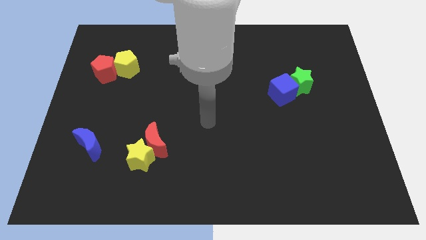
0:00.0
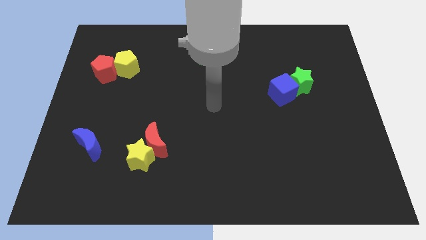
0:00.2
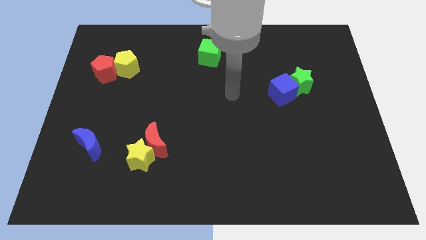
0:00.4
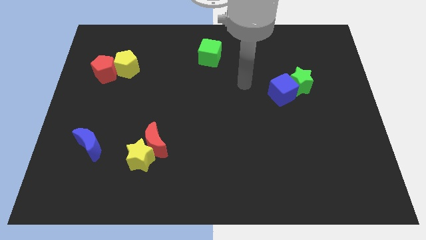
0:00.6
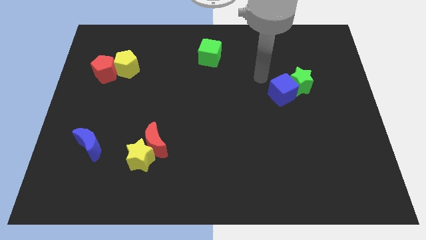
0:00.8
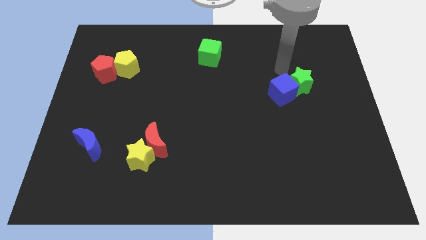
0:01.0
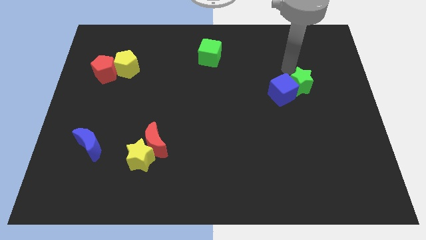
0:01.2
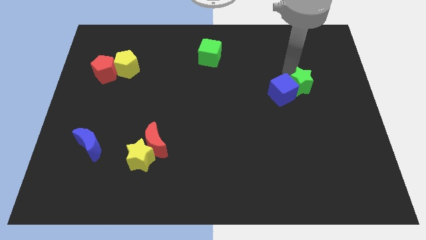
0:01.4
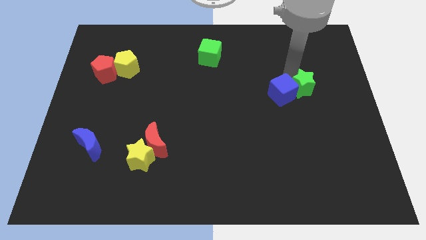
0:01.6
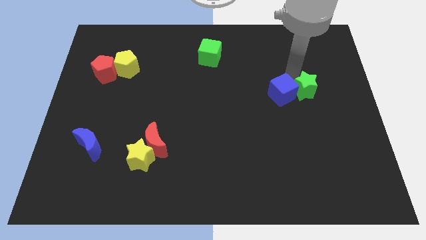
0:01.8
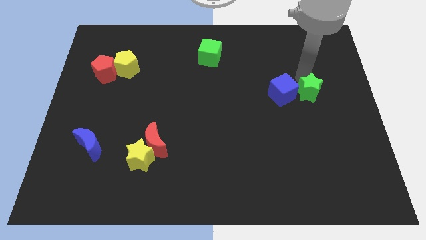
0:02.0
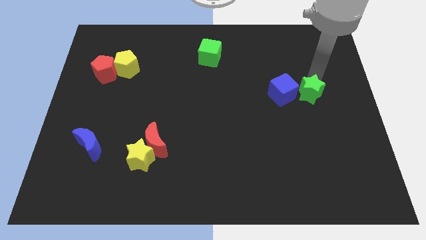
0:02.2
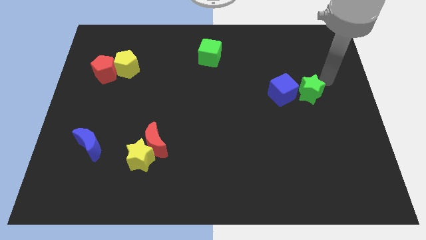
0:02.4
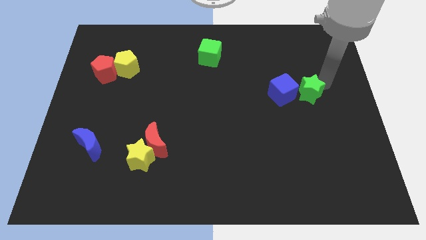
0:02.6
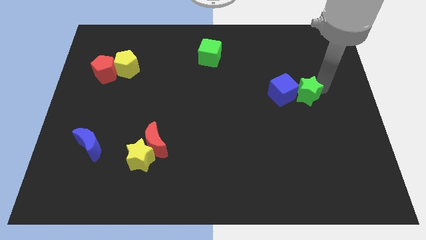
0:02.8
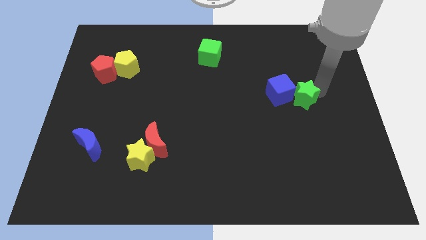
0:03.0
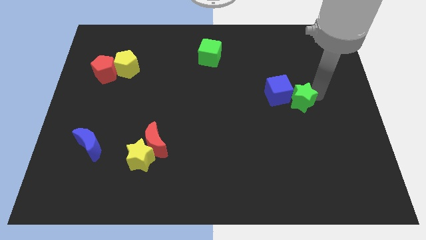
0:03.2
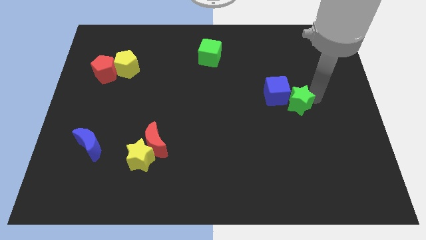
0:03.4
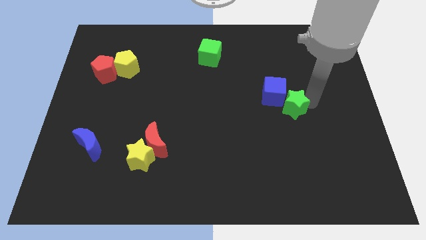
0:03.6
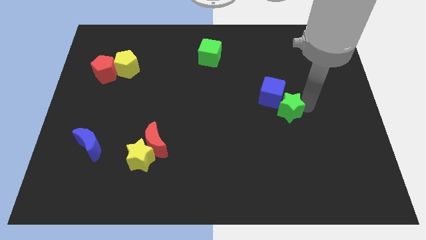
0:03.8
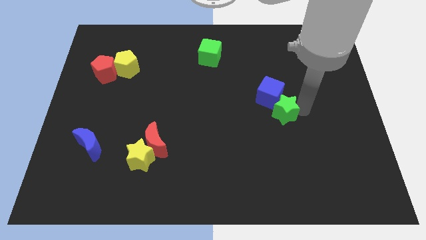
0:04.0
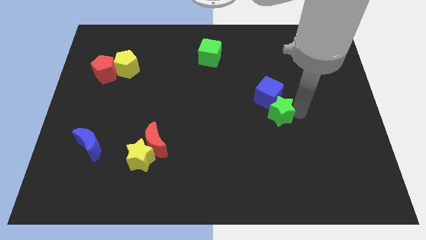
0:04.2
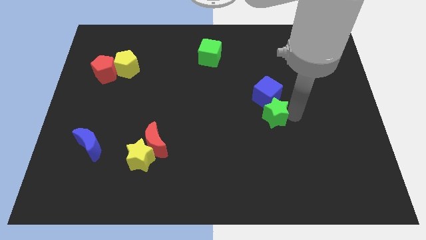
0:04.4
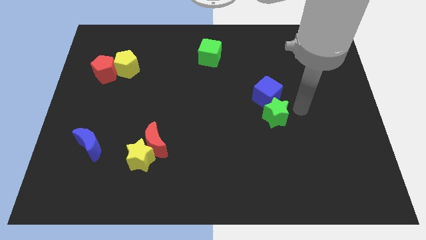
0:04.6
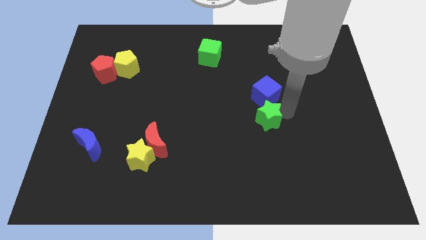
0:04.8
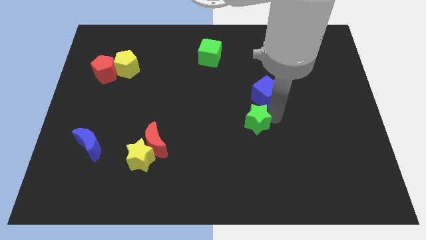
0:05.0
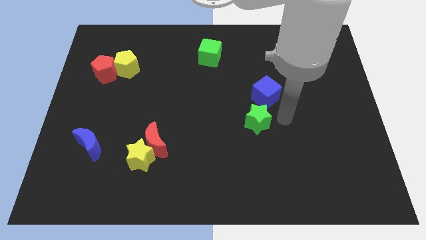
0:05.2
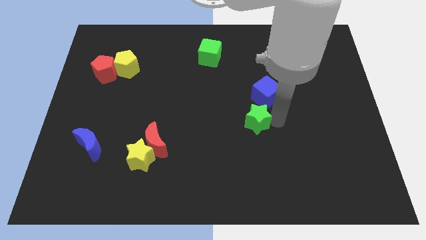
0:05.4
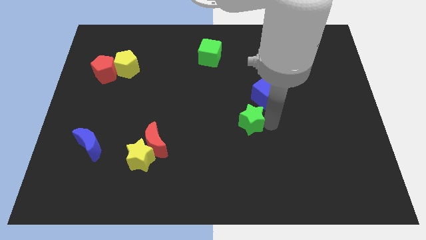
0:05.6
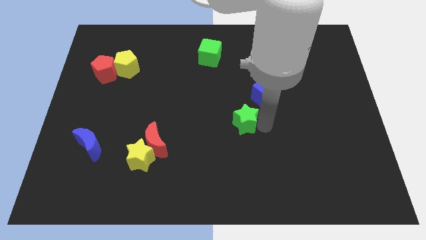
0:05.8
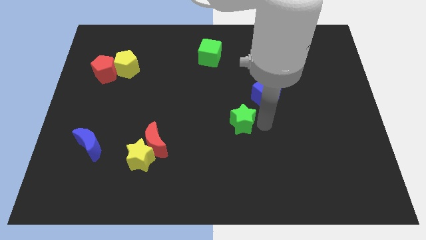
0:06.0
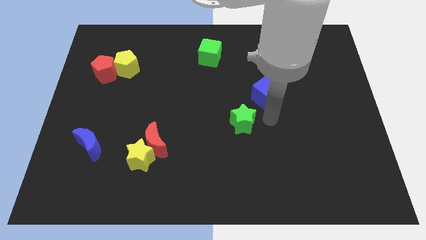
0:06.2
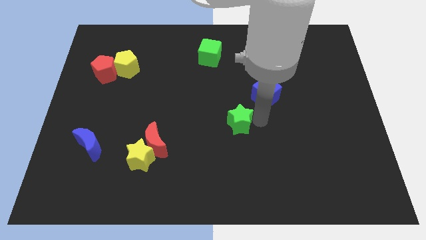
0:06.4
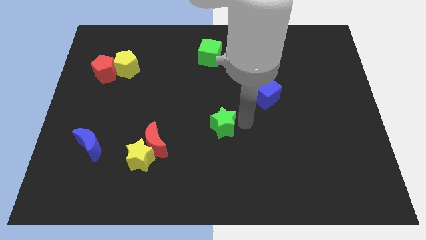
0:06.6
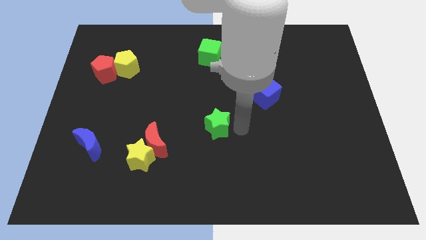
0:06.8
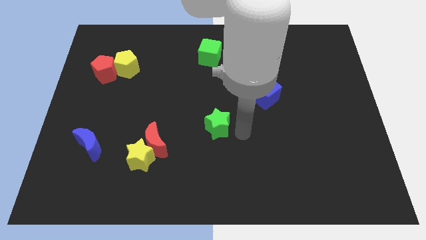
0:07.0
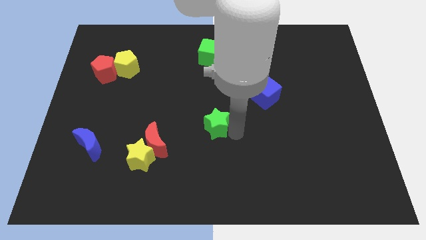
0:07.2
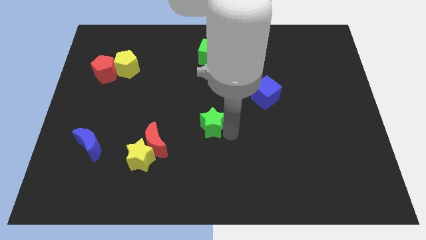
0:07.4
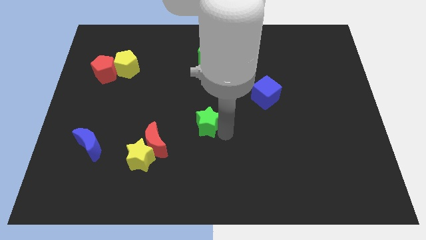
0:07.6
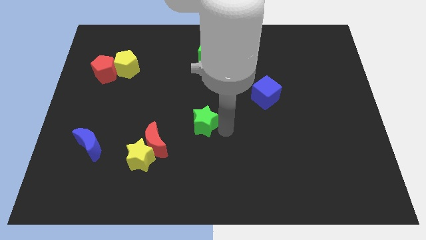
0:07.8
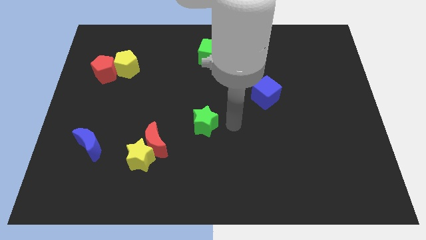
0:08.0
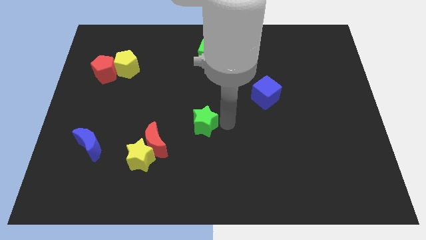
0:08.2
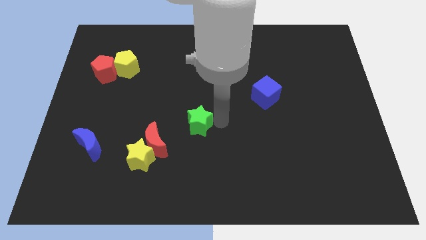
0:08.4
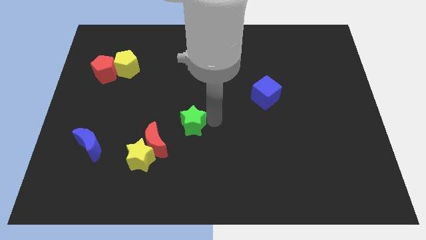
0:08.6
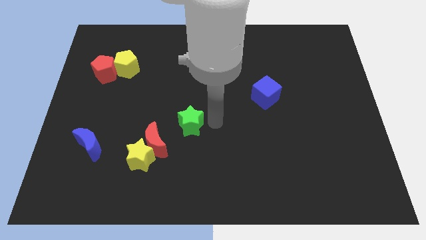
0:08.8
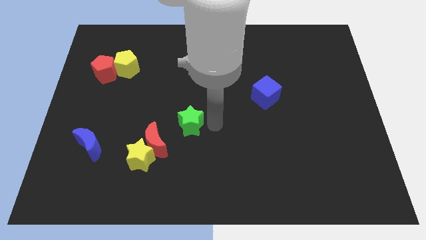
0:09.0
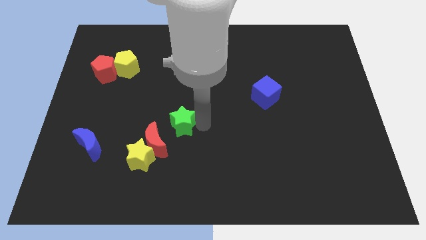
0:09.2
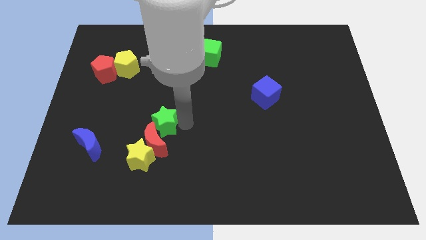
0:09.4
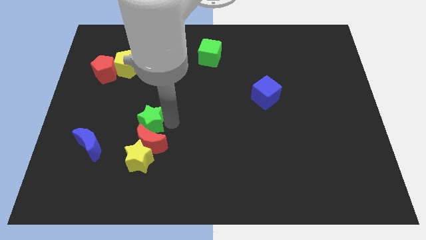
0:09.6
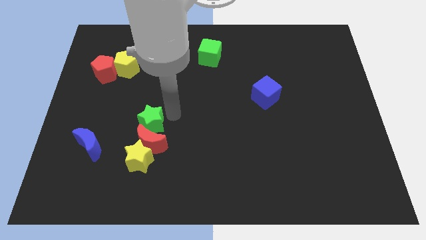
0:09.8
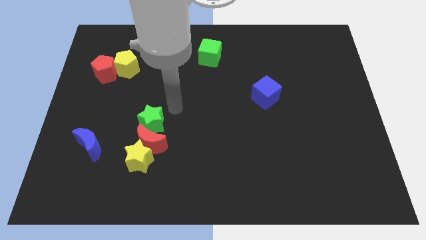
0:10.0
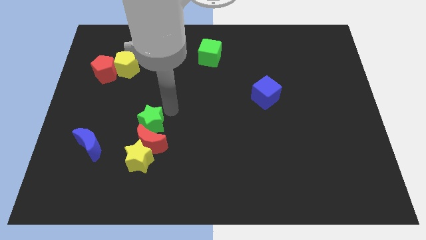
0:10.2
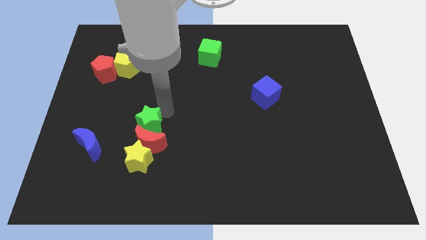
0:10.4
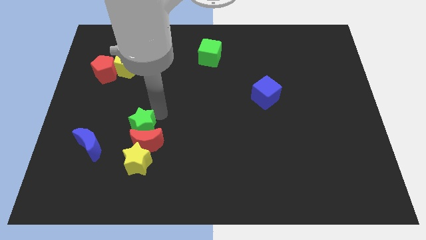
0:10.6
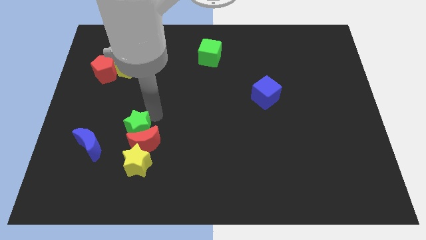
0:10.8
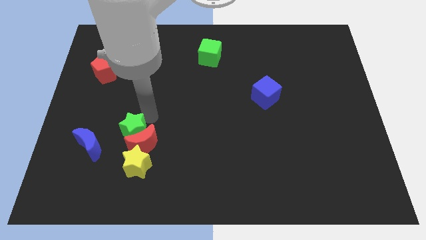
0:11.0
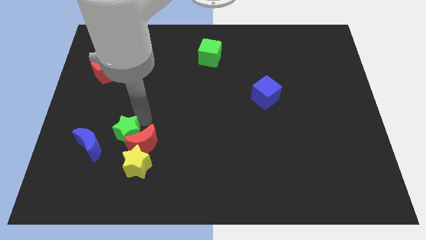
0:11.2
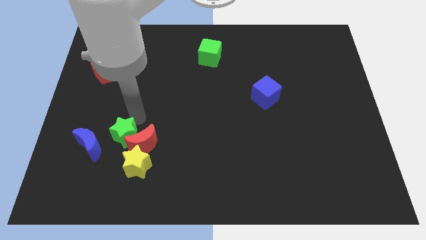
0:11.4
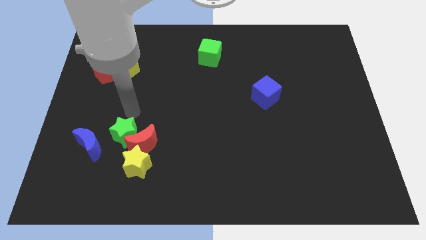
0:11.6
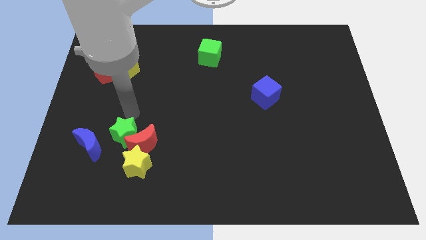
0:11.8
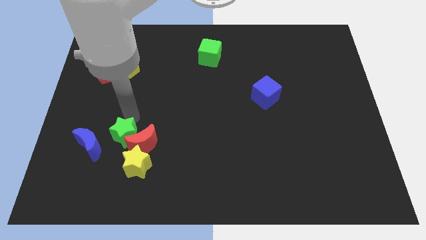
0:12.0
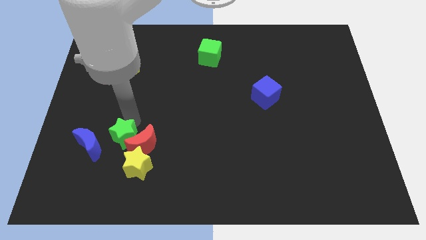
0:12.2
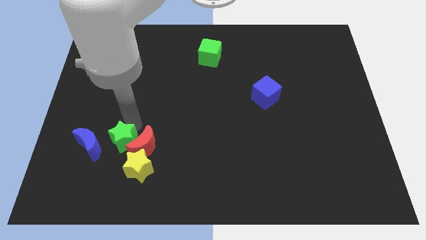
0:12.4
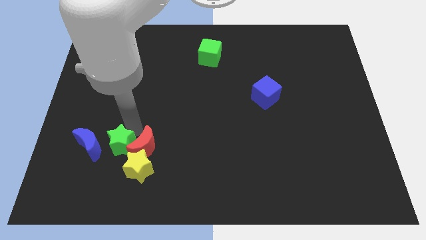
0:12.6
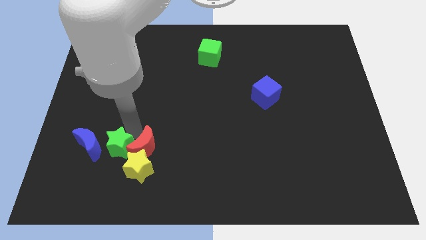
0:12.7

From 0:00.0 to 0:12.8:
push the green star to the bottom right side of the blue moon

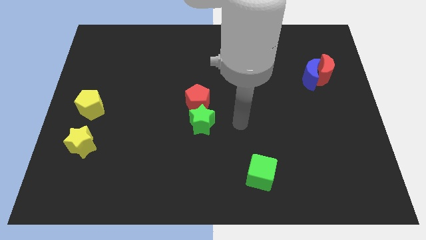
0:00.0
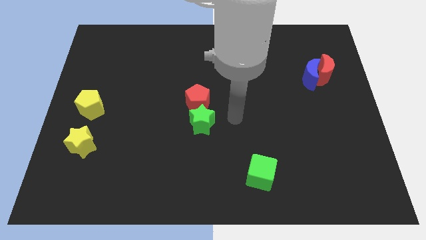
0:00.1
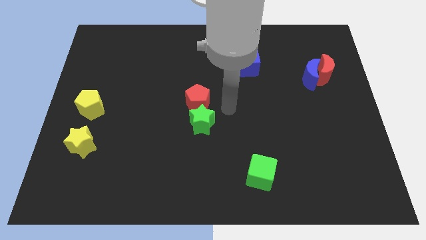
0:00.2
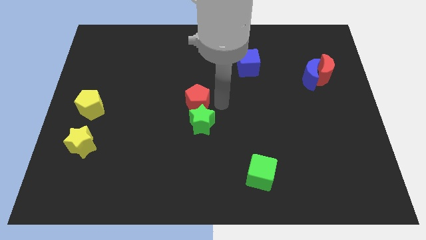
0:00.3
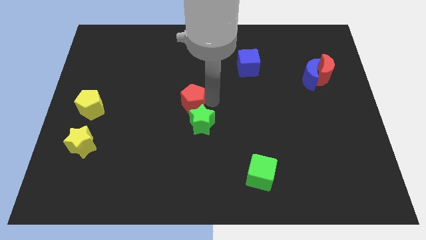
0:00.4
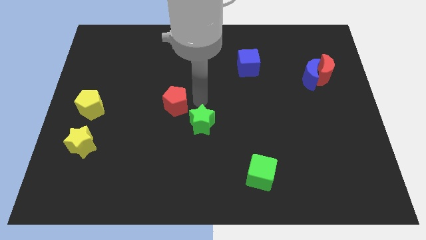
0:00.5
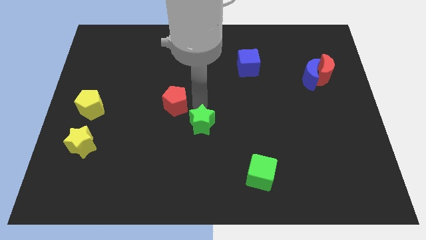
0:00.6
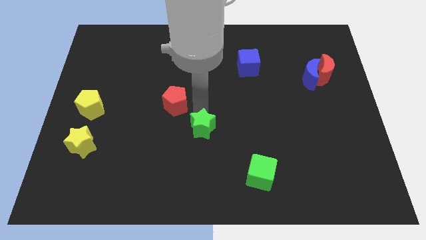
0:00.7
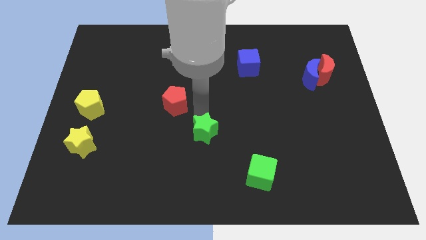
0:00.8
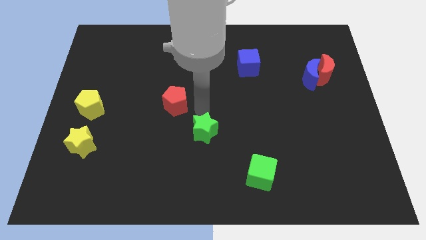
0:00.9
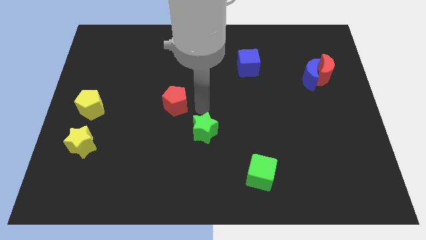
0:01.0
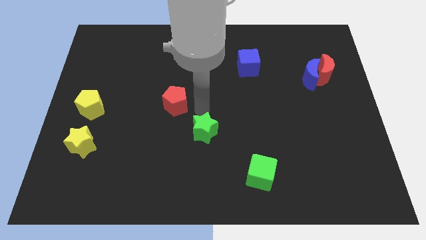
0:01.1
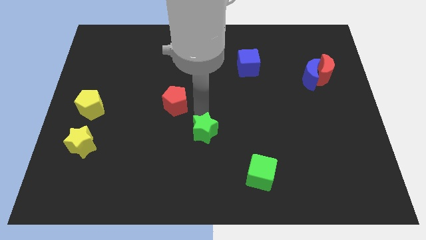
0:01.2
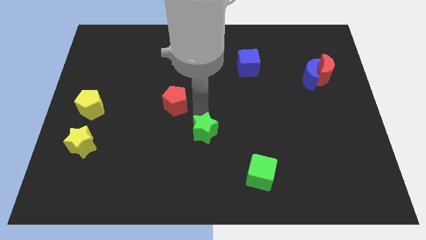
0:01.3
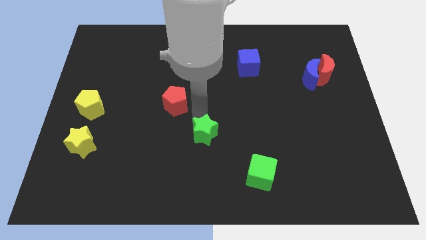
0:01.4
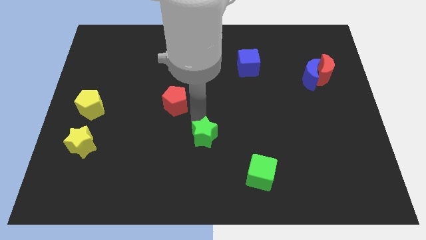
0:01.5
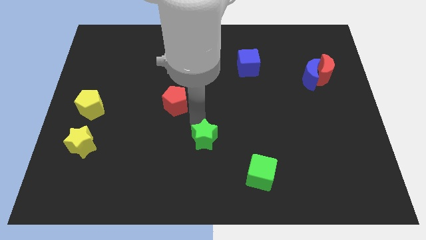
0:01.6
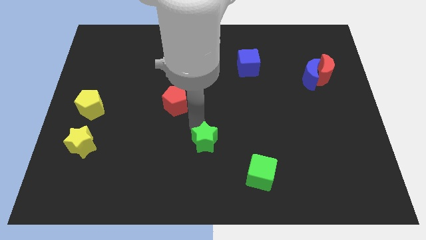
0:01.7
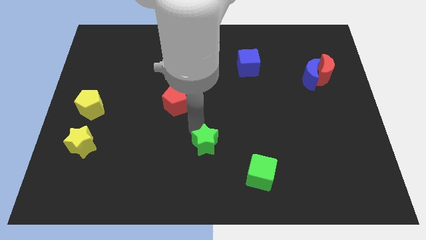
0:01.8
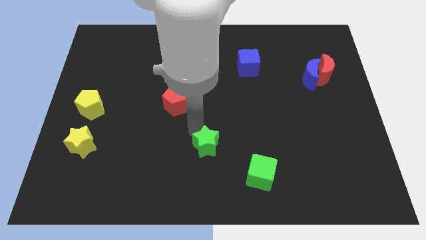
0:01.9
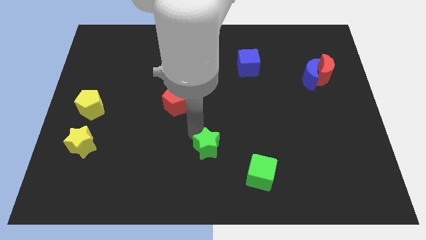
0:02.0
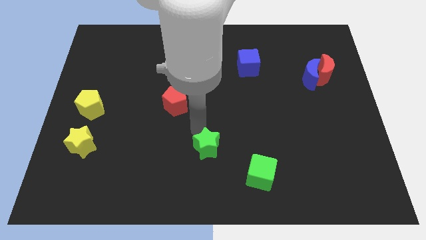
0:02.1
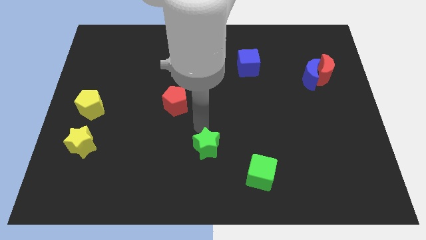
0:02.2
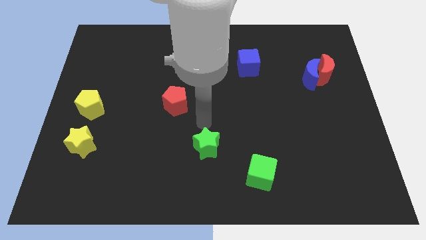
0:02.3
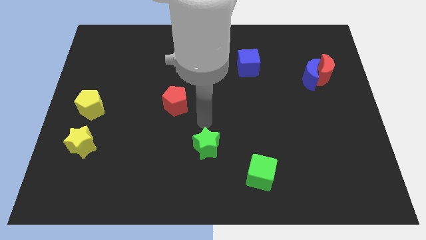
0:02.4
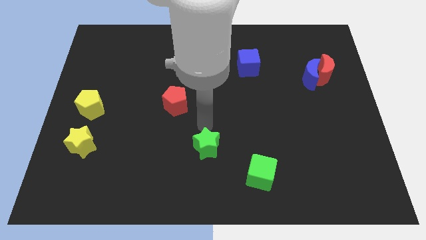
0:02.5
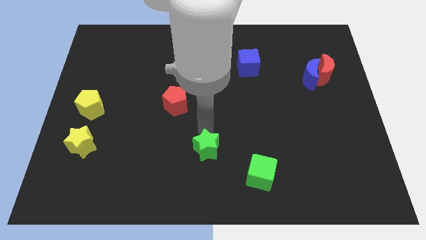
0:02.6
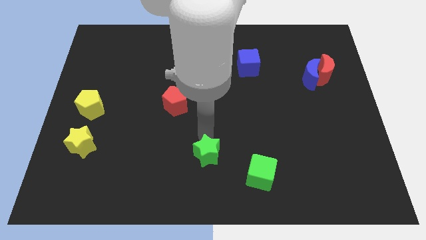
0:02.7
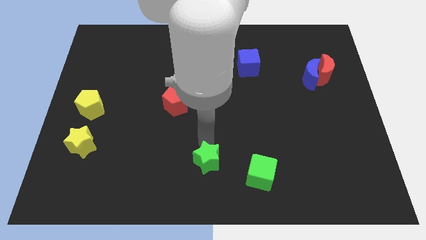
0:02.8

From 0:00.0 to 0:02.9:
push the green star left of the green cube
